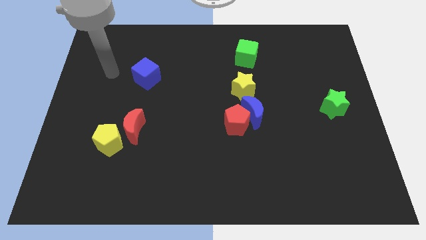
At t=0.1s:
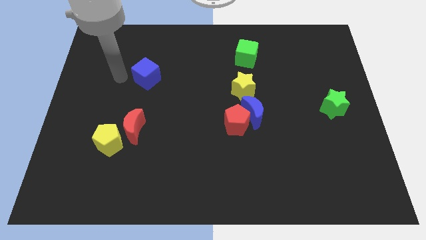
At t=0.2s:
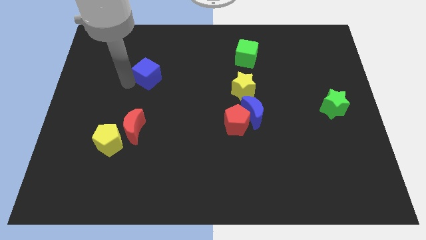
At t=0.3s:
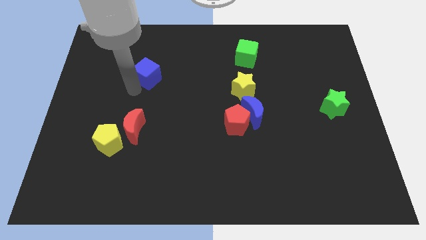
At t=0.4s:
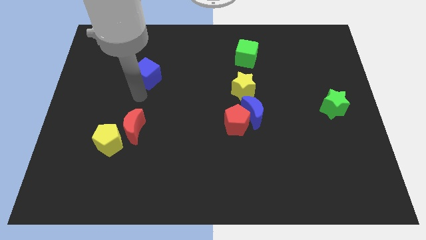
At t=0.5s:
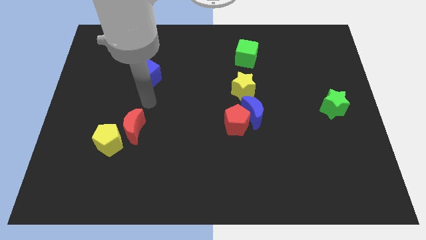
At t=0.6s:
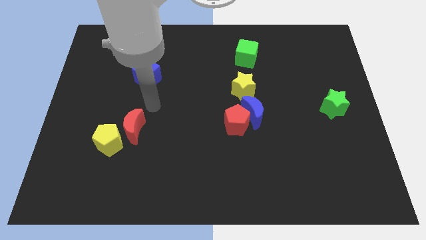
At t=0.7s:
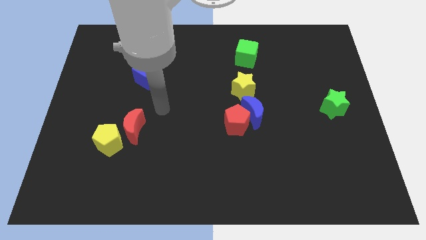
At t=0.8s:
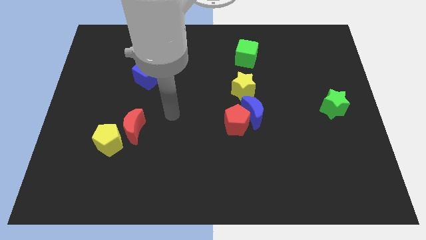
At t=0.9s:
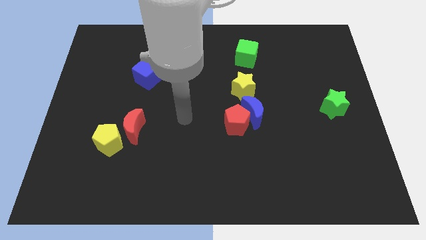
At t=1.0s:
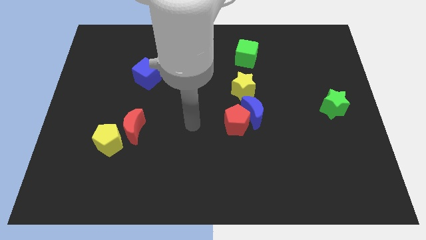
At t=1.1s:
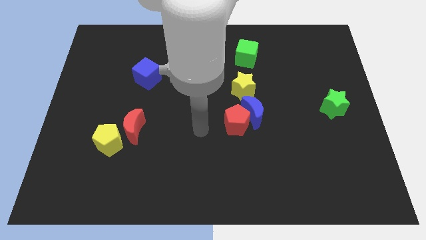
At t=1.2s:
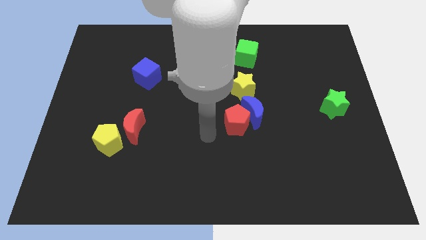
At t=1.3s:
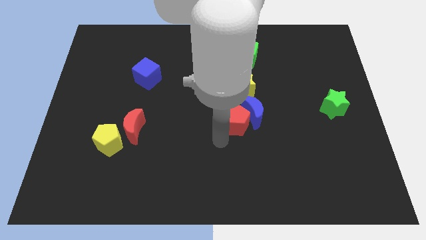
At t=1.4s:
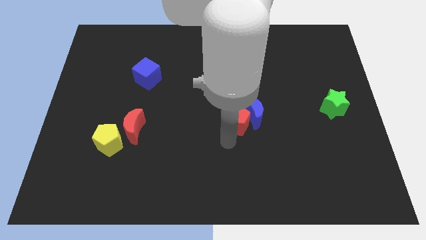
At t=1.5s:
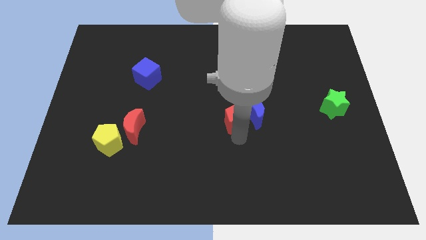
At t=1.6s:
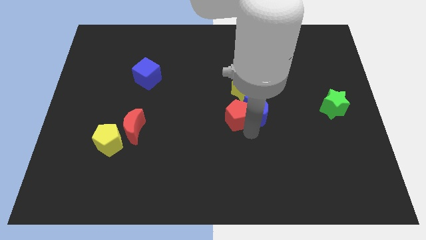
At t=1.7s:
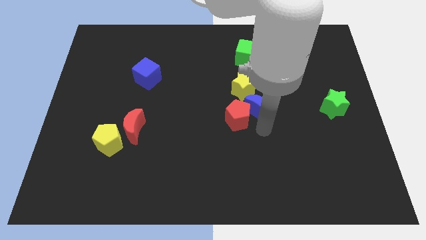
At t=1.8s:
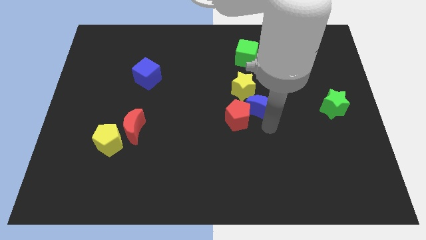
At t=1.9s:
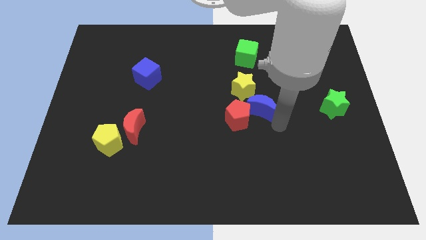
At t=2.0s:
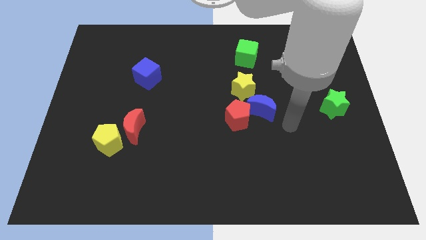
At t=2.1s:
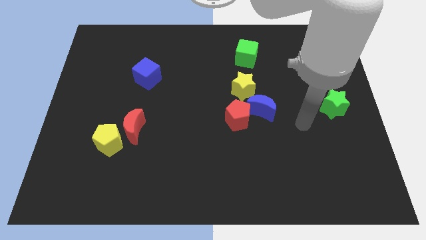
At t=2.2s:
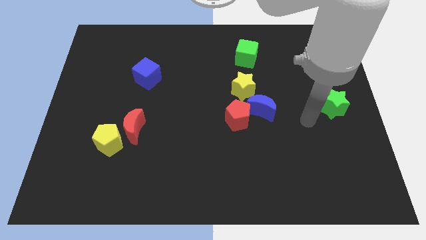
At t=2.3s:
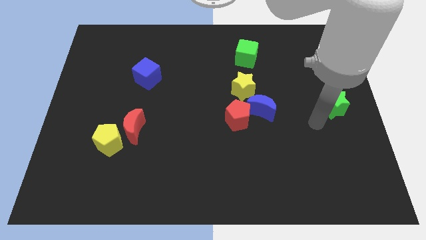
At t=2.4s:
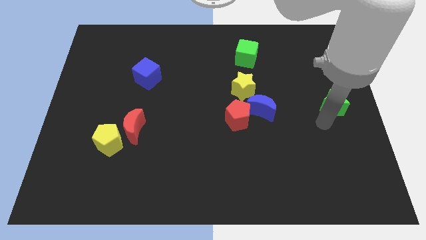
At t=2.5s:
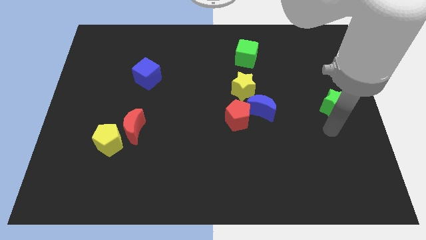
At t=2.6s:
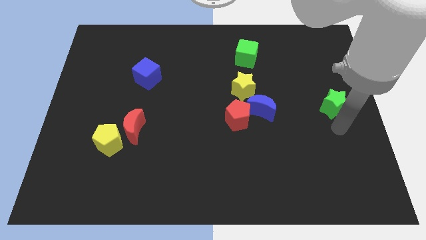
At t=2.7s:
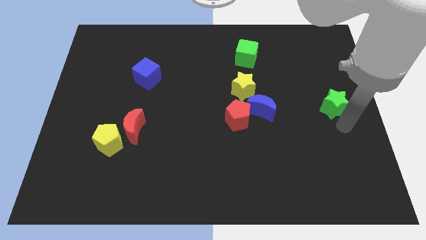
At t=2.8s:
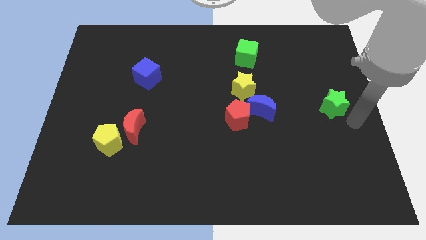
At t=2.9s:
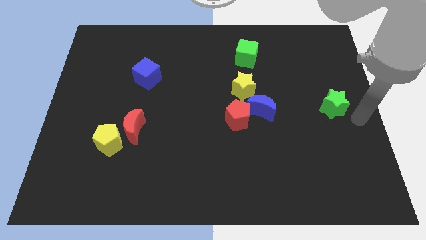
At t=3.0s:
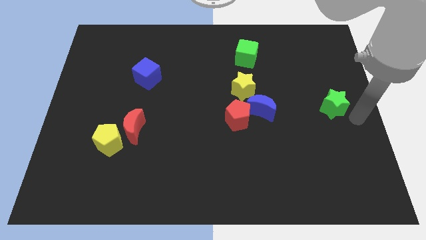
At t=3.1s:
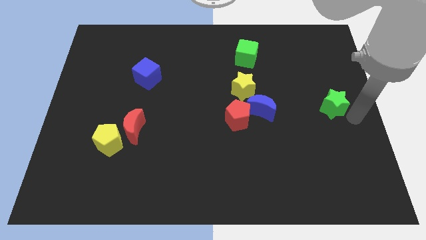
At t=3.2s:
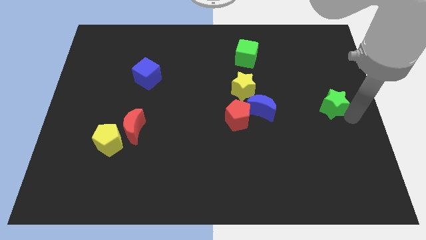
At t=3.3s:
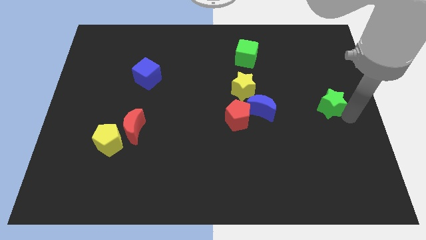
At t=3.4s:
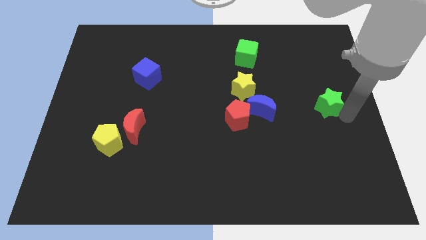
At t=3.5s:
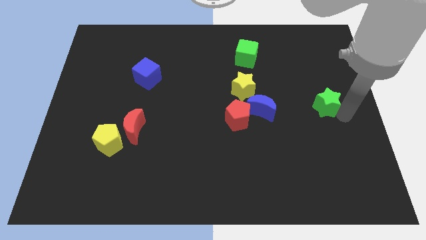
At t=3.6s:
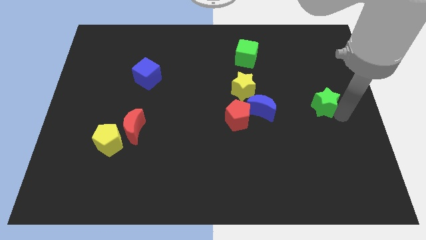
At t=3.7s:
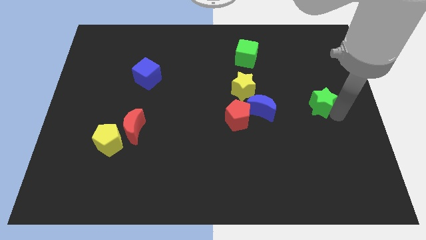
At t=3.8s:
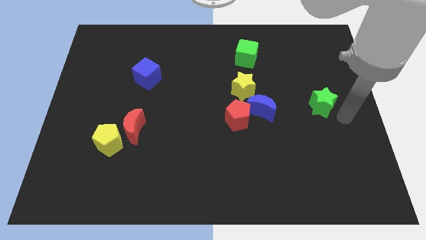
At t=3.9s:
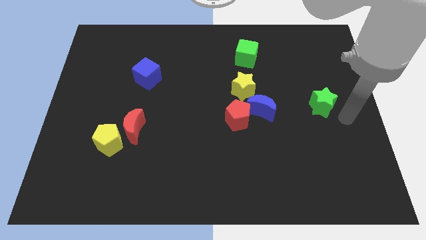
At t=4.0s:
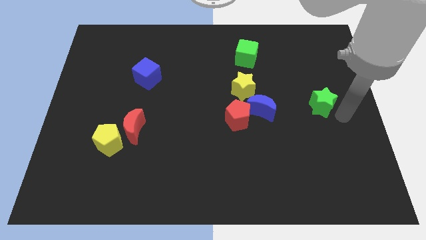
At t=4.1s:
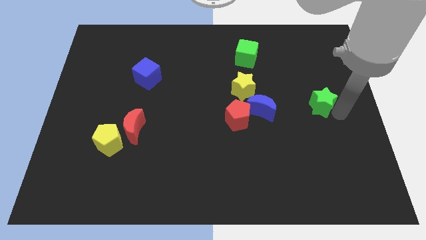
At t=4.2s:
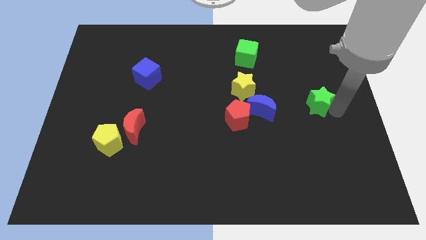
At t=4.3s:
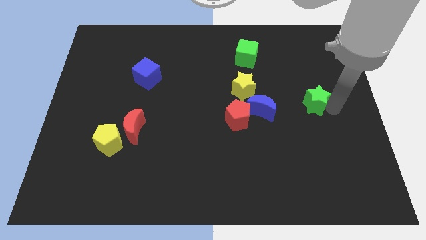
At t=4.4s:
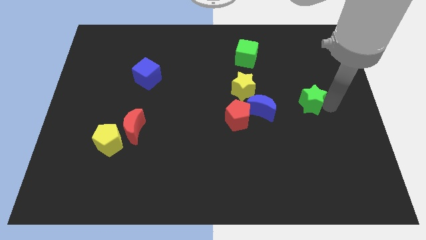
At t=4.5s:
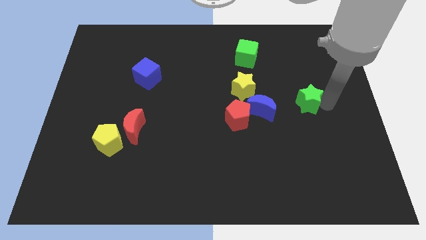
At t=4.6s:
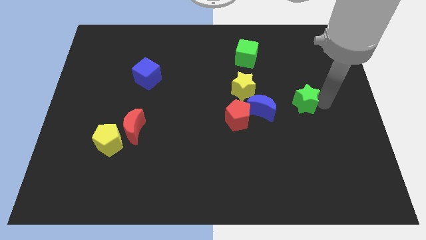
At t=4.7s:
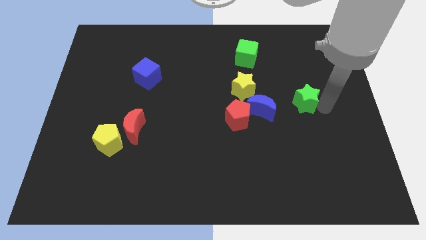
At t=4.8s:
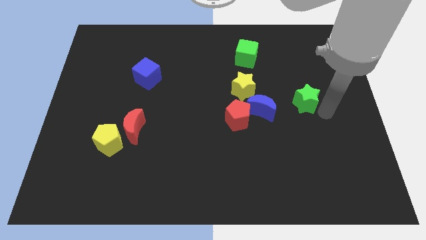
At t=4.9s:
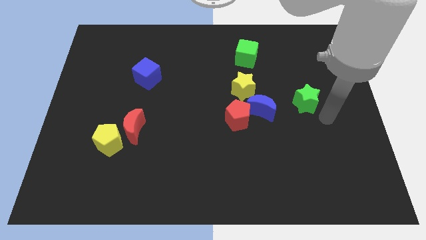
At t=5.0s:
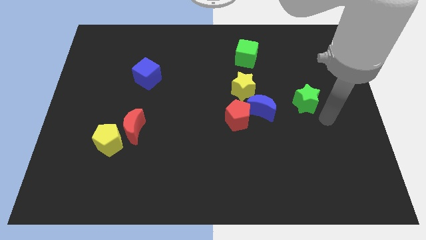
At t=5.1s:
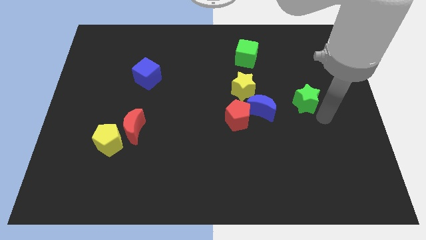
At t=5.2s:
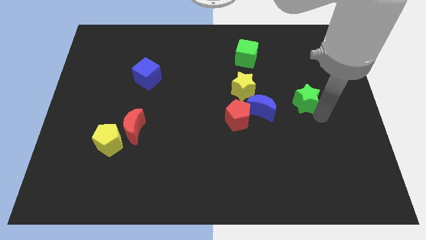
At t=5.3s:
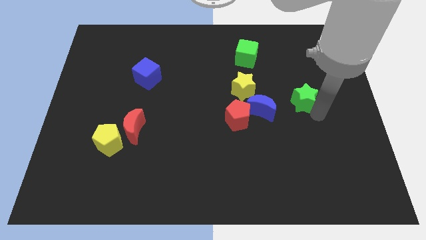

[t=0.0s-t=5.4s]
put the green star just right of the yellow star

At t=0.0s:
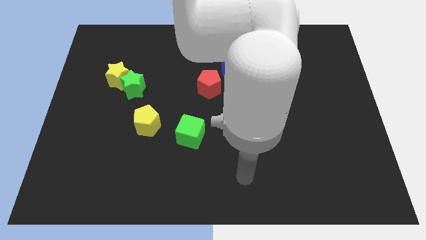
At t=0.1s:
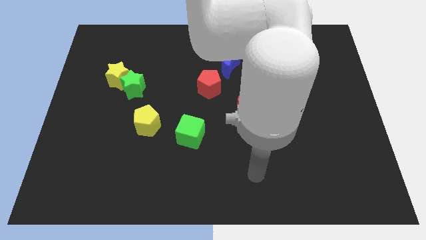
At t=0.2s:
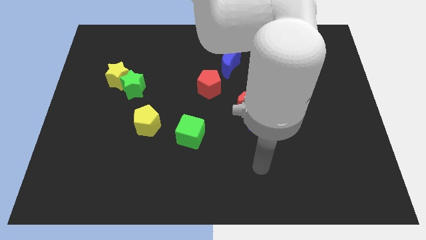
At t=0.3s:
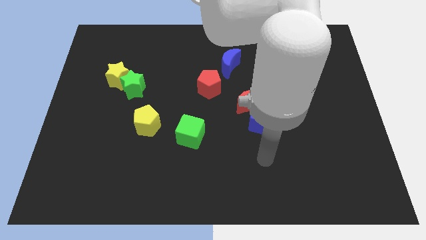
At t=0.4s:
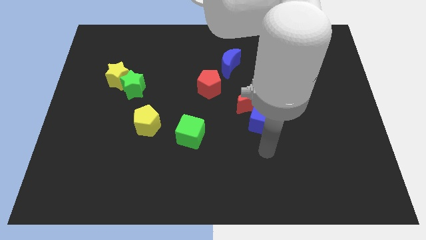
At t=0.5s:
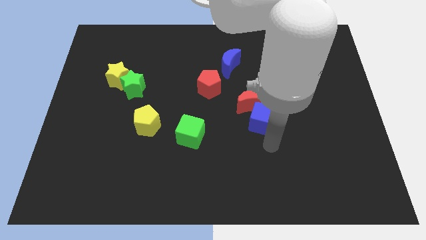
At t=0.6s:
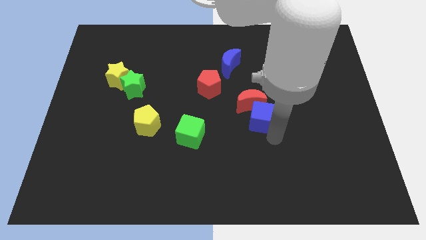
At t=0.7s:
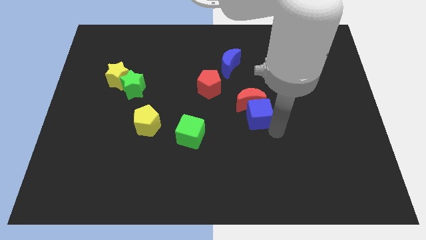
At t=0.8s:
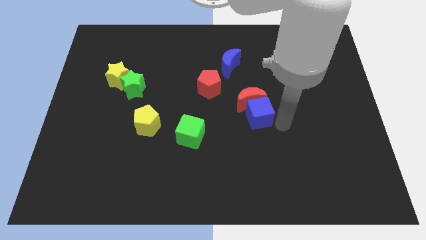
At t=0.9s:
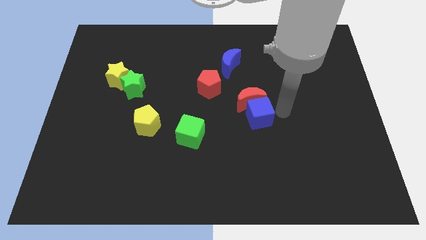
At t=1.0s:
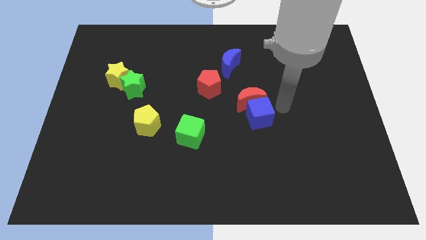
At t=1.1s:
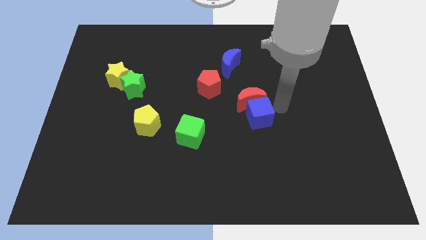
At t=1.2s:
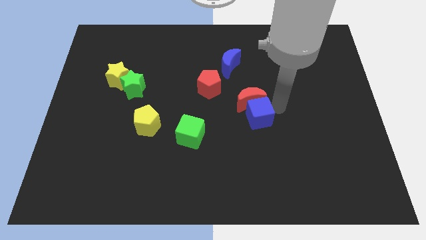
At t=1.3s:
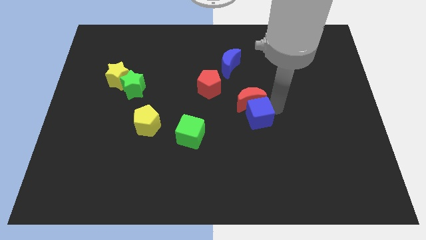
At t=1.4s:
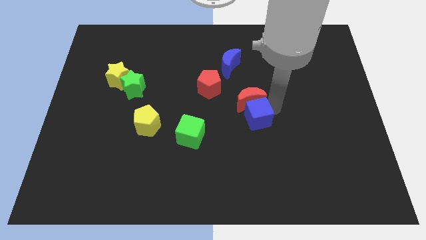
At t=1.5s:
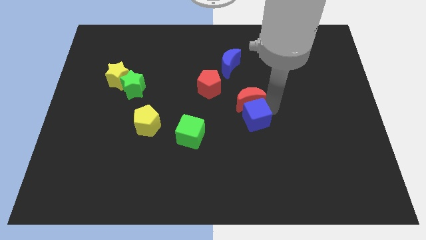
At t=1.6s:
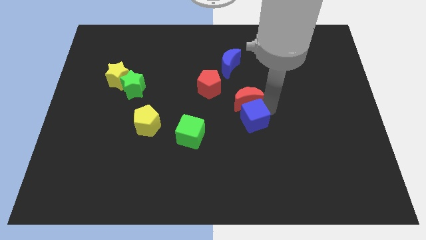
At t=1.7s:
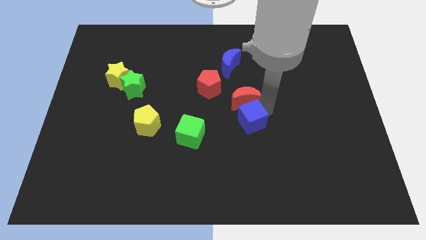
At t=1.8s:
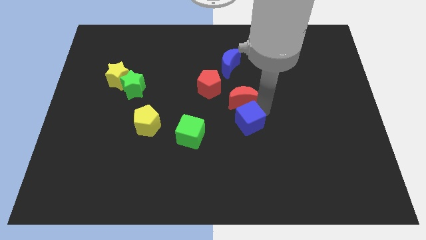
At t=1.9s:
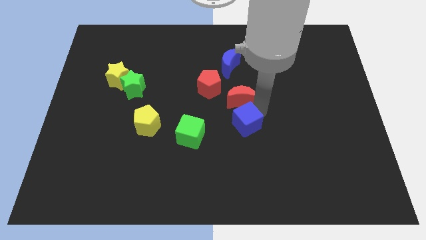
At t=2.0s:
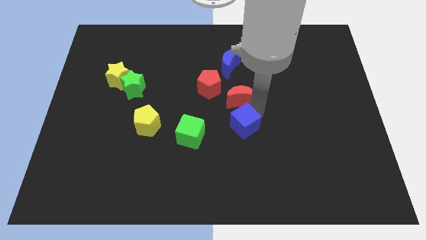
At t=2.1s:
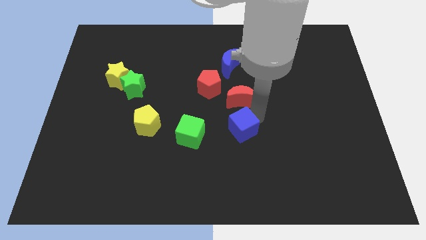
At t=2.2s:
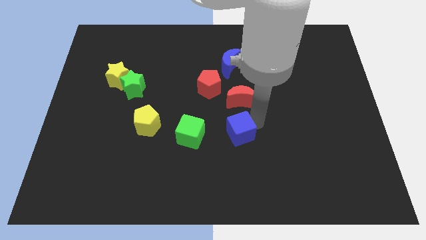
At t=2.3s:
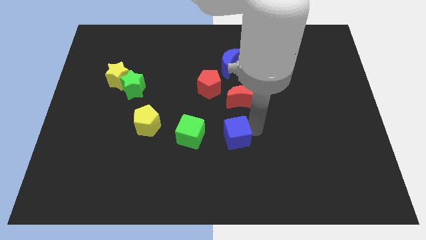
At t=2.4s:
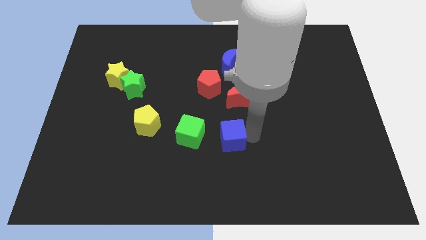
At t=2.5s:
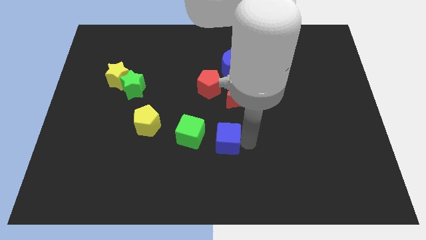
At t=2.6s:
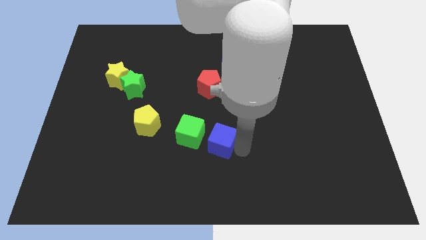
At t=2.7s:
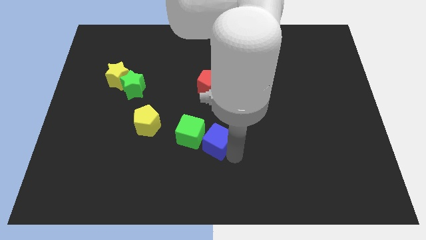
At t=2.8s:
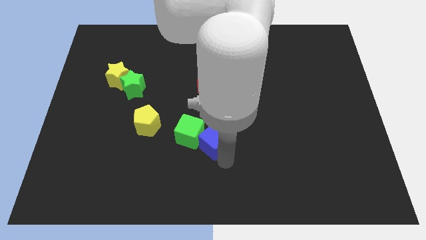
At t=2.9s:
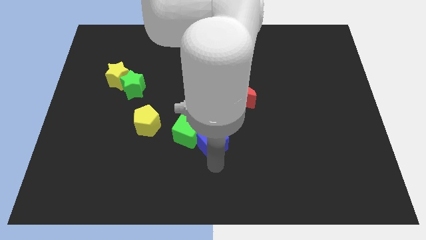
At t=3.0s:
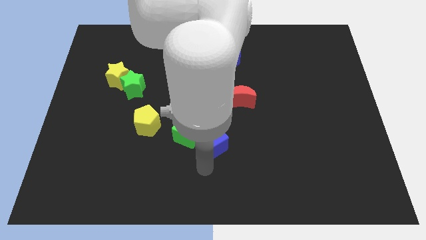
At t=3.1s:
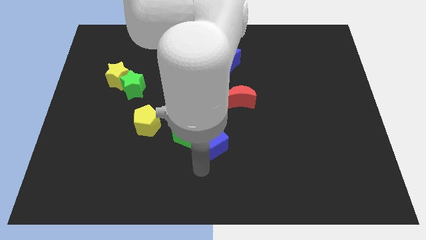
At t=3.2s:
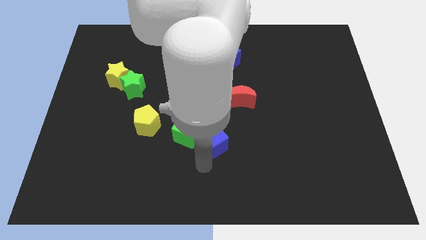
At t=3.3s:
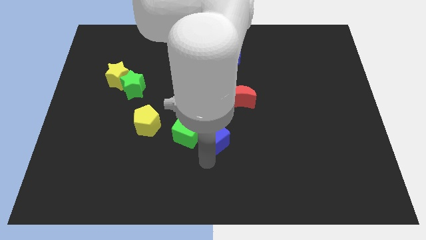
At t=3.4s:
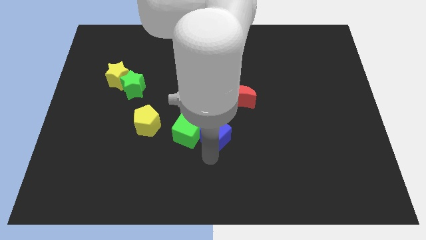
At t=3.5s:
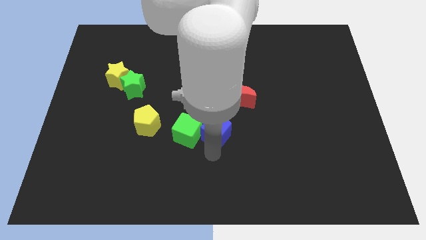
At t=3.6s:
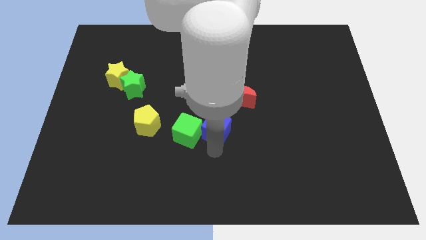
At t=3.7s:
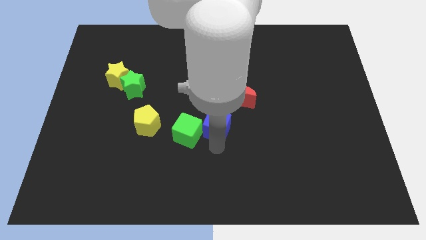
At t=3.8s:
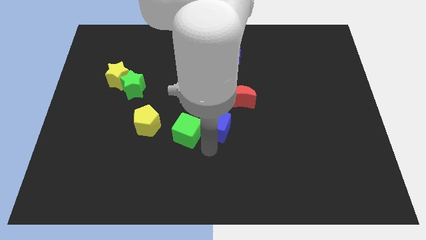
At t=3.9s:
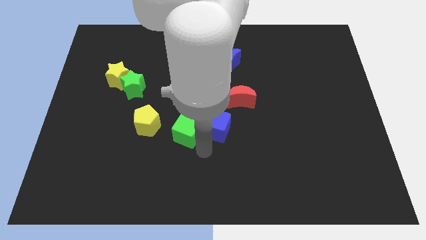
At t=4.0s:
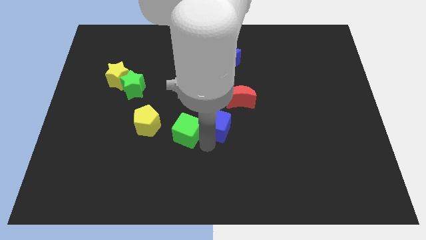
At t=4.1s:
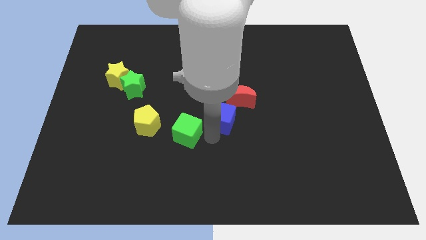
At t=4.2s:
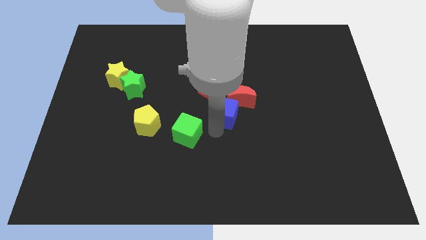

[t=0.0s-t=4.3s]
slide the blue cube to the bottom right side of the red pentagon
